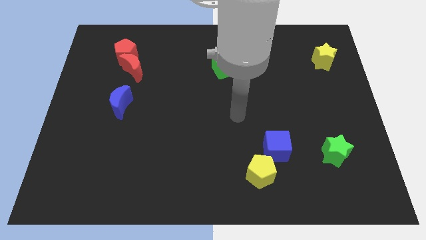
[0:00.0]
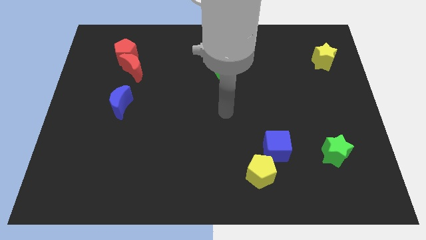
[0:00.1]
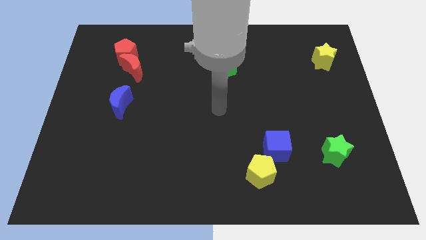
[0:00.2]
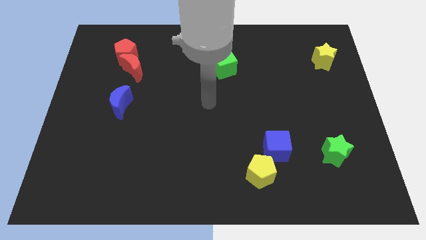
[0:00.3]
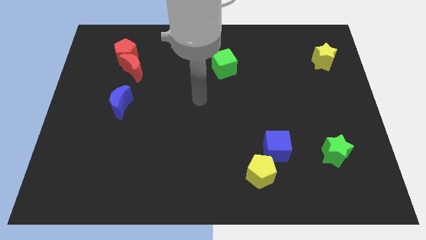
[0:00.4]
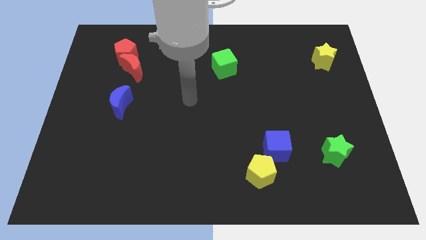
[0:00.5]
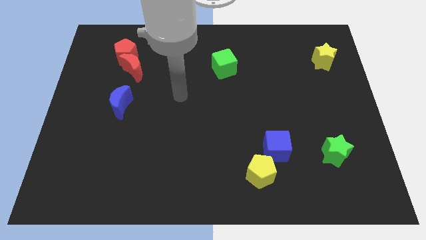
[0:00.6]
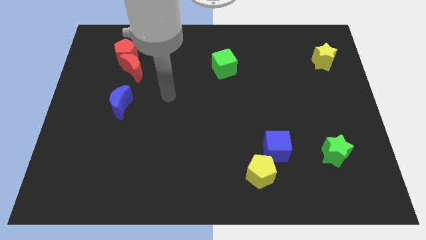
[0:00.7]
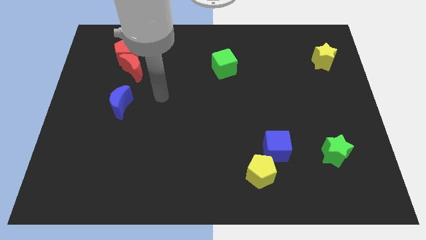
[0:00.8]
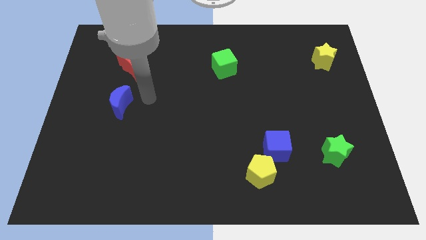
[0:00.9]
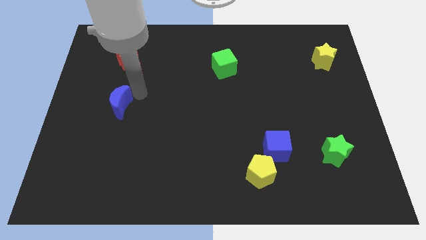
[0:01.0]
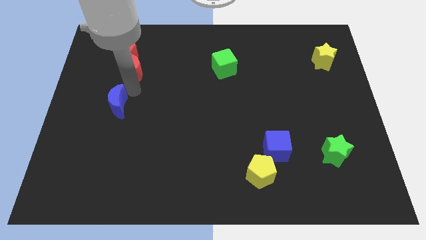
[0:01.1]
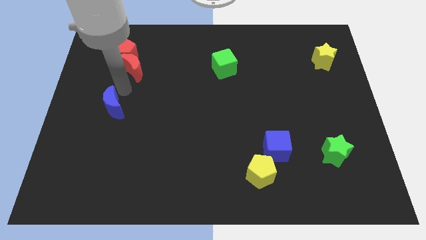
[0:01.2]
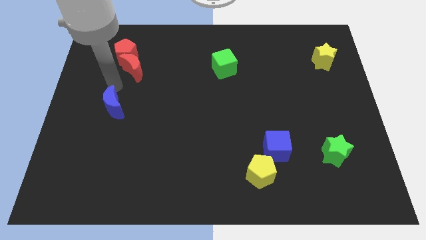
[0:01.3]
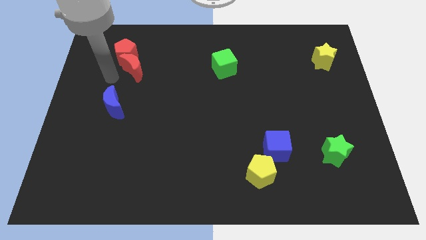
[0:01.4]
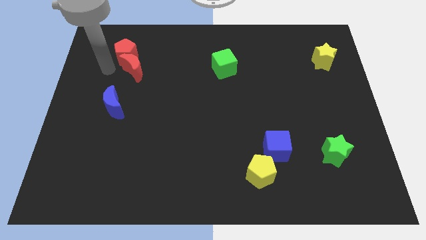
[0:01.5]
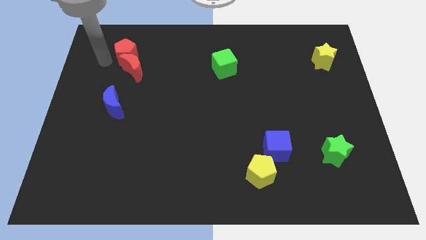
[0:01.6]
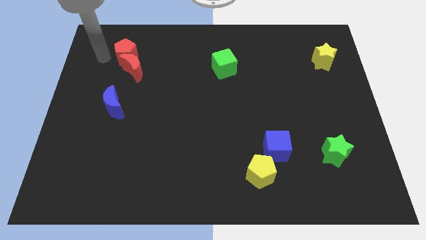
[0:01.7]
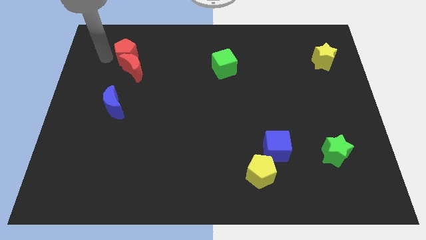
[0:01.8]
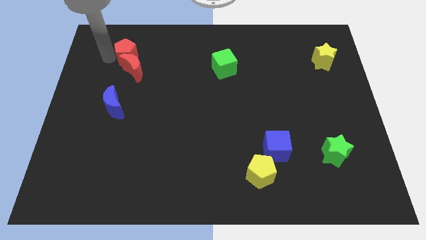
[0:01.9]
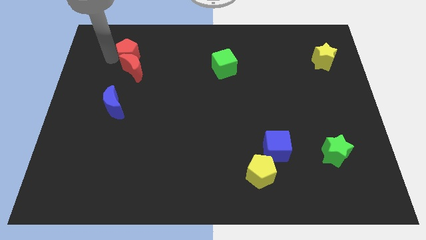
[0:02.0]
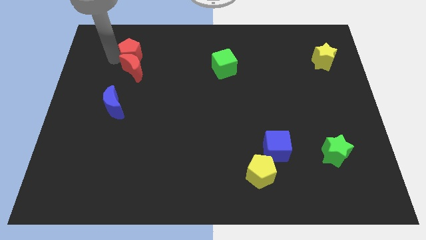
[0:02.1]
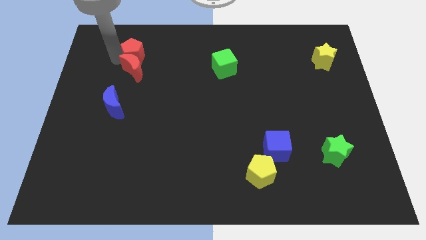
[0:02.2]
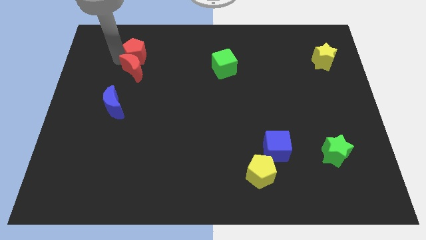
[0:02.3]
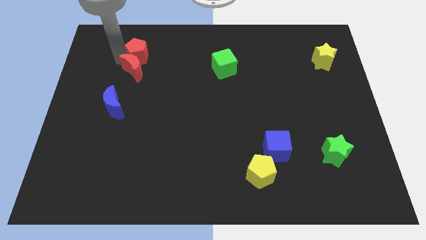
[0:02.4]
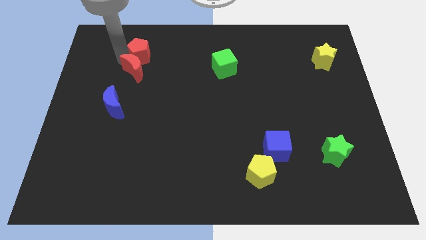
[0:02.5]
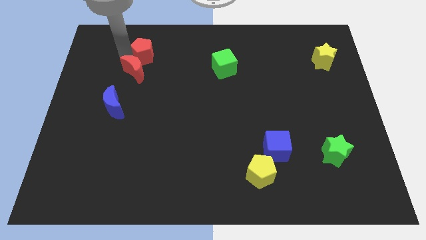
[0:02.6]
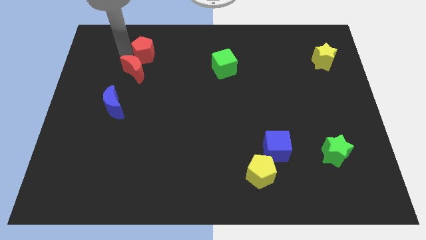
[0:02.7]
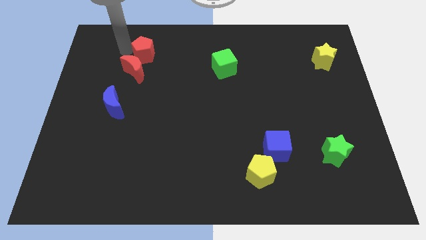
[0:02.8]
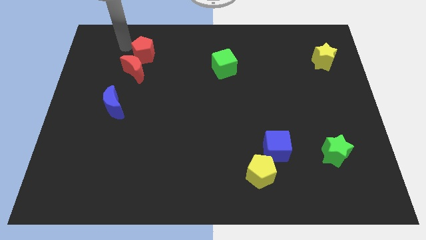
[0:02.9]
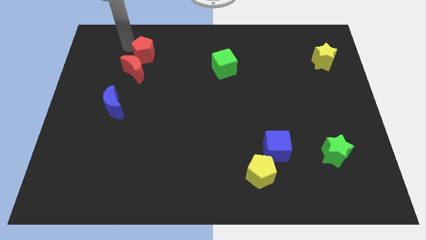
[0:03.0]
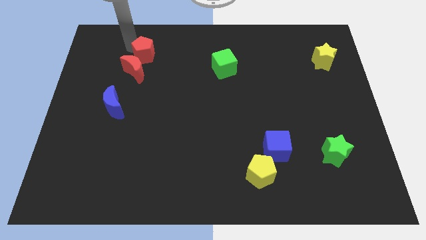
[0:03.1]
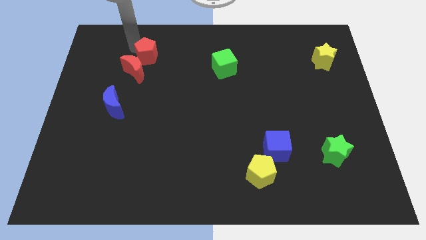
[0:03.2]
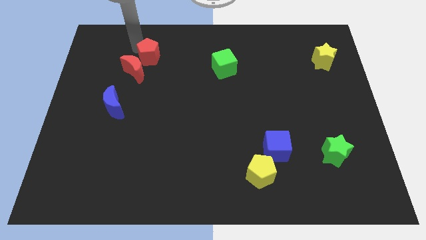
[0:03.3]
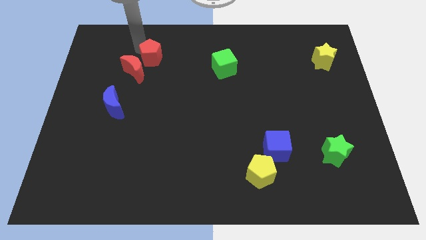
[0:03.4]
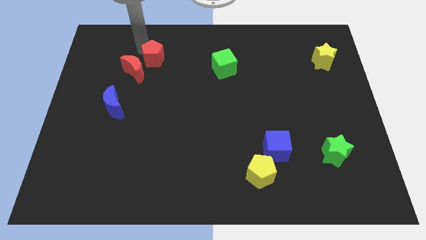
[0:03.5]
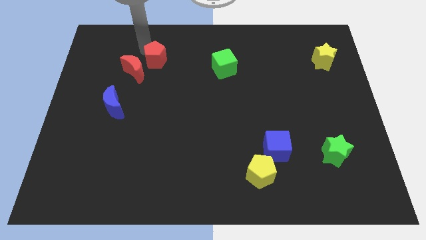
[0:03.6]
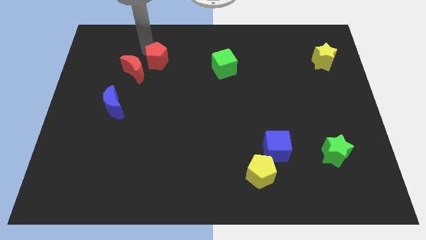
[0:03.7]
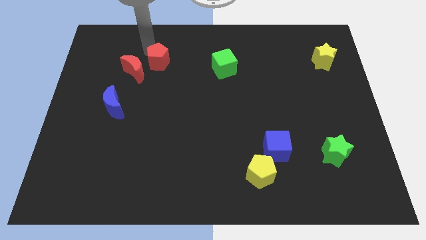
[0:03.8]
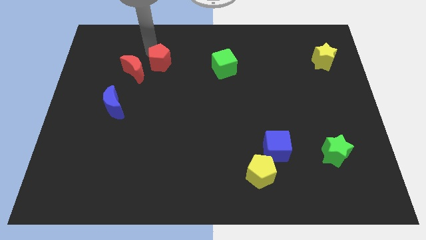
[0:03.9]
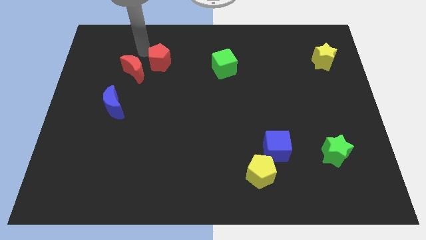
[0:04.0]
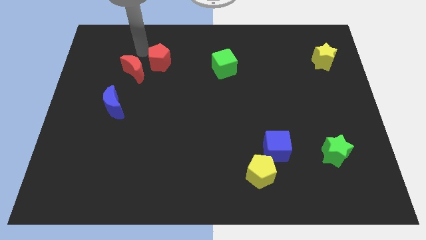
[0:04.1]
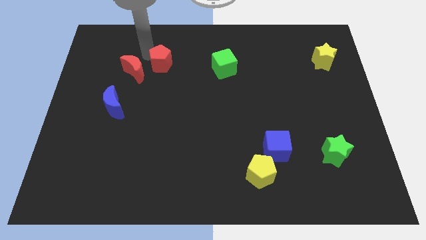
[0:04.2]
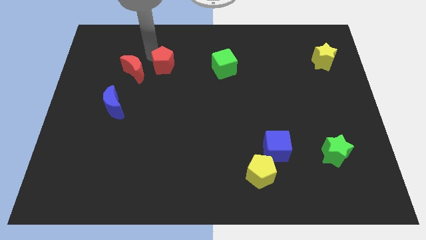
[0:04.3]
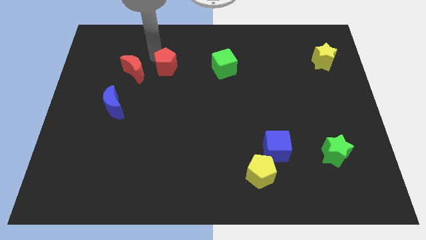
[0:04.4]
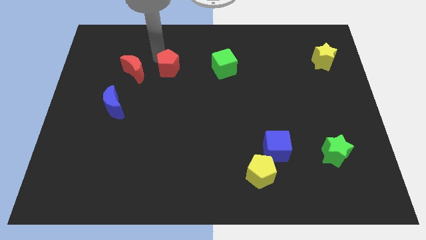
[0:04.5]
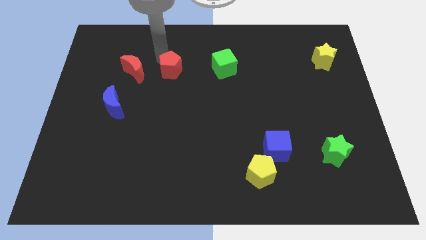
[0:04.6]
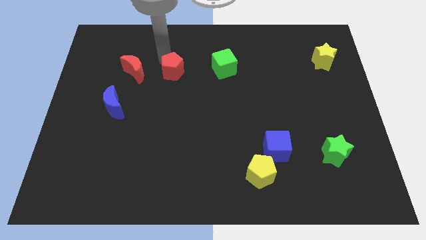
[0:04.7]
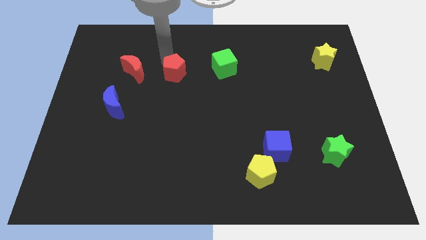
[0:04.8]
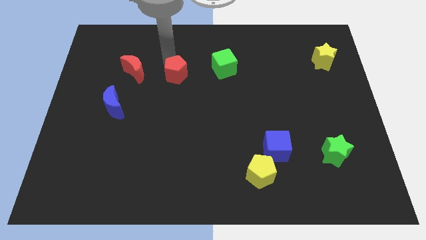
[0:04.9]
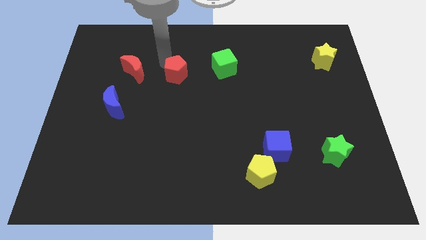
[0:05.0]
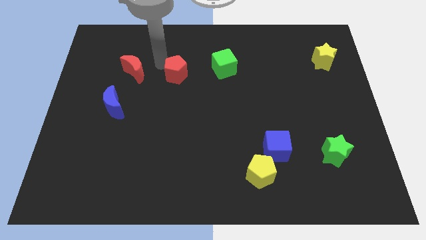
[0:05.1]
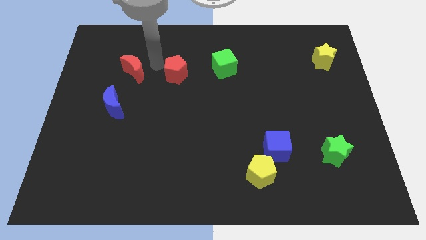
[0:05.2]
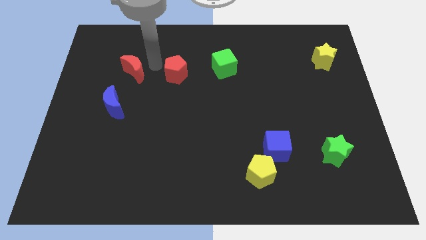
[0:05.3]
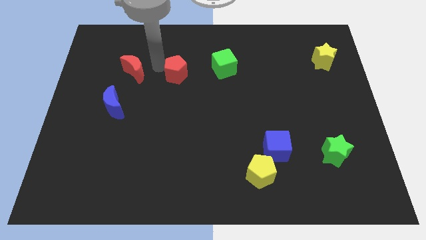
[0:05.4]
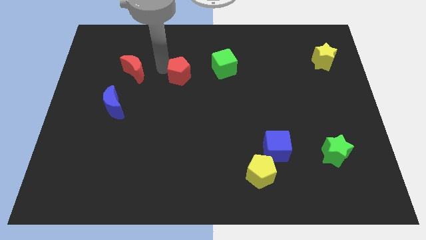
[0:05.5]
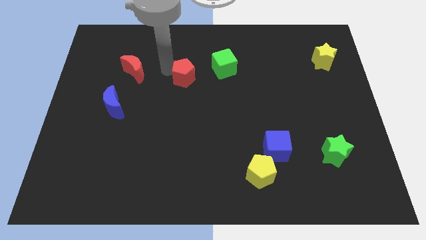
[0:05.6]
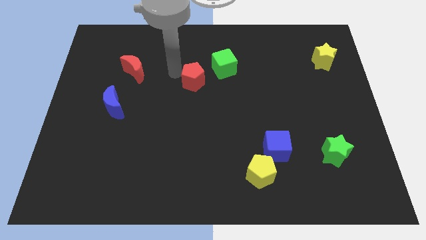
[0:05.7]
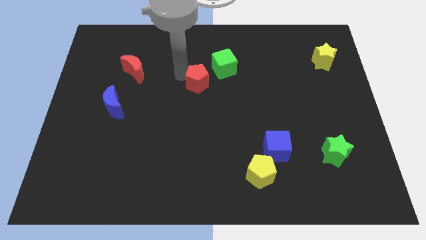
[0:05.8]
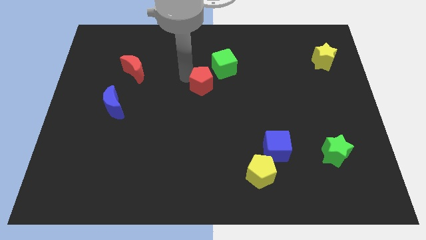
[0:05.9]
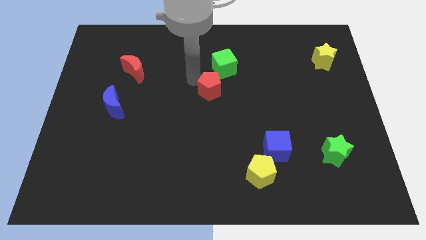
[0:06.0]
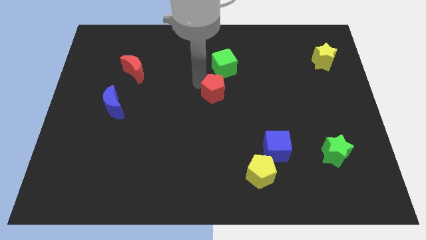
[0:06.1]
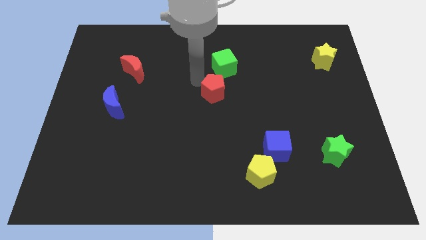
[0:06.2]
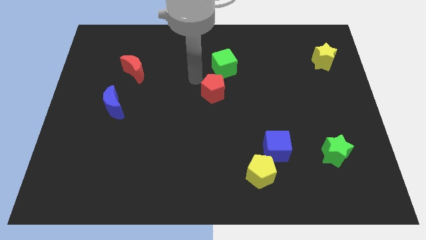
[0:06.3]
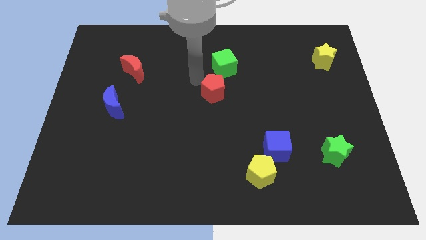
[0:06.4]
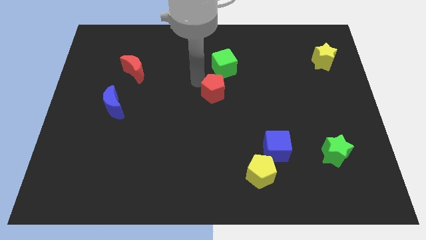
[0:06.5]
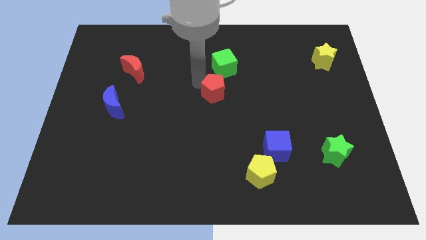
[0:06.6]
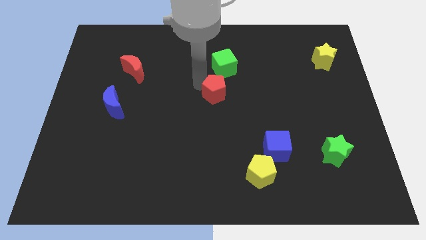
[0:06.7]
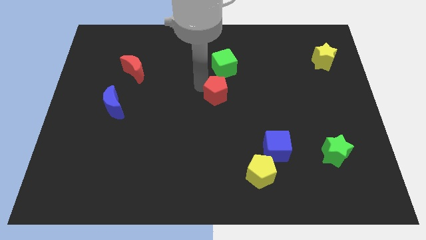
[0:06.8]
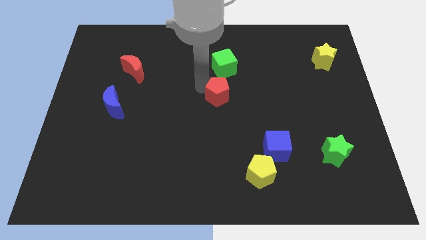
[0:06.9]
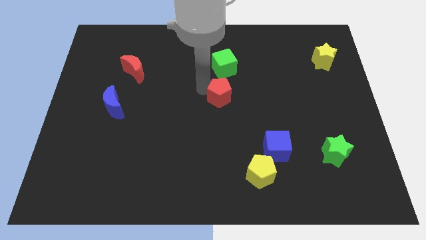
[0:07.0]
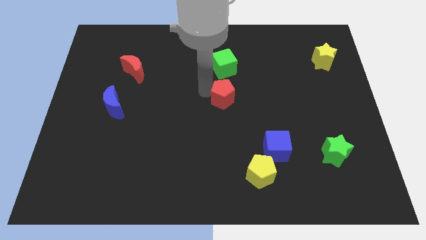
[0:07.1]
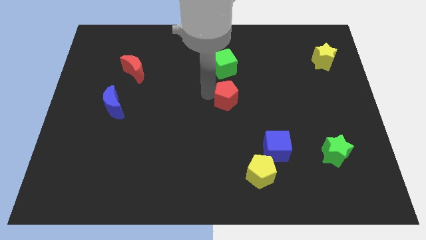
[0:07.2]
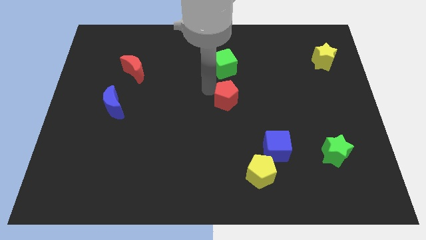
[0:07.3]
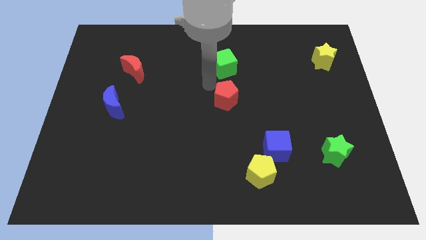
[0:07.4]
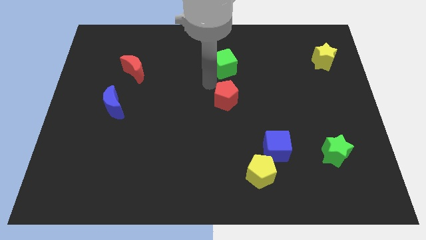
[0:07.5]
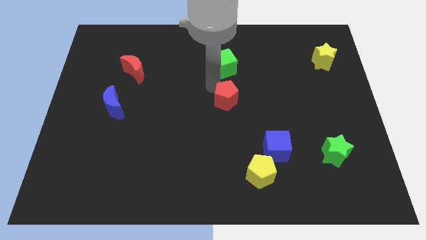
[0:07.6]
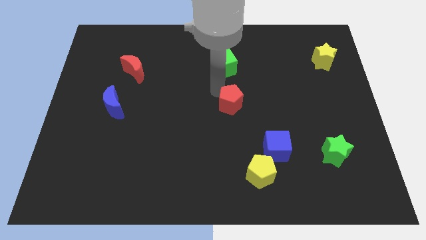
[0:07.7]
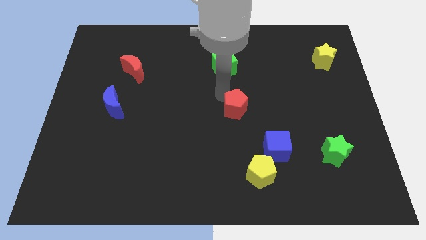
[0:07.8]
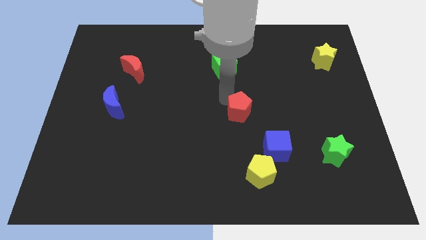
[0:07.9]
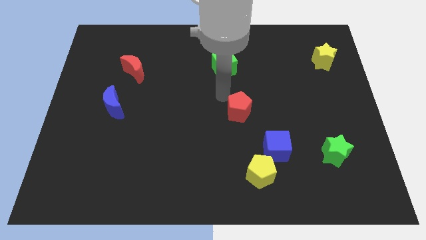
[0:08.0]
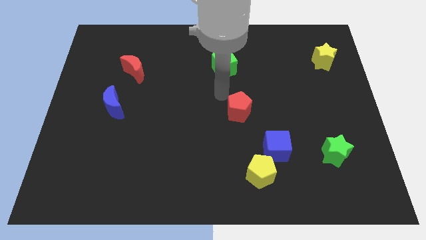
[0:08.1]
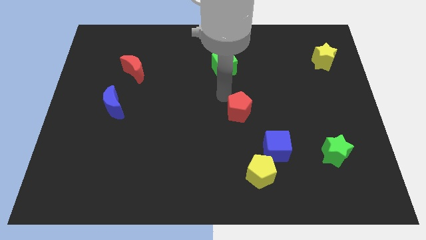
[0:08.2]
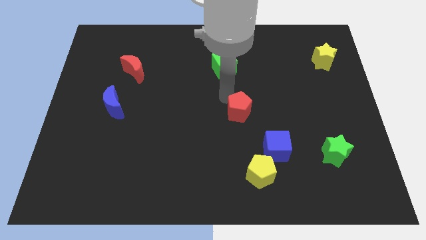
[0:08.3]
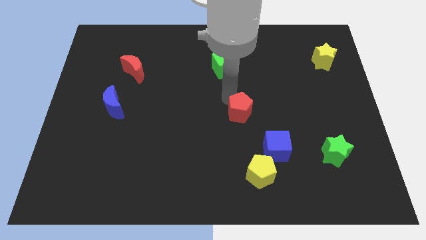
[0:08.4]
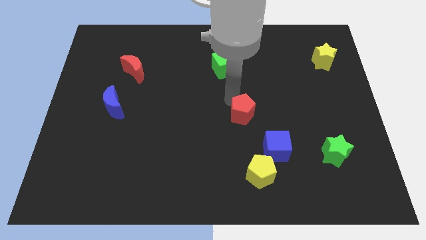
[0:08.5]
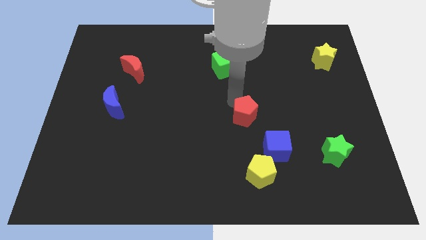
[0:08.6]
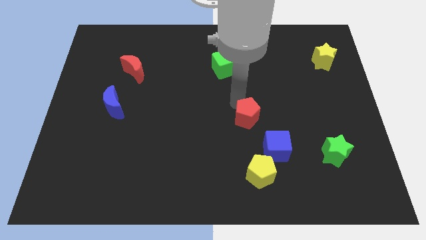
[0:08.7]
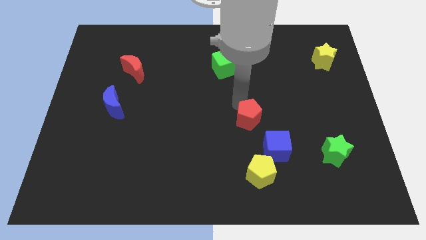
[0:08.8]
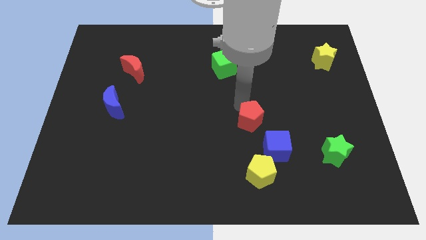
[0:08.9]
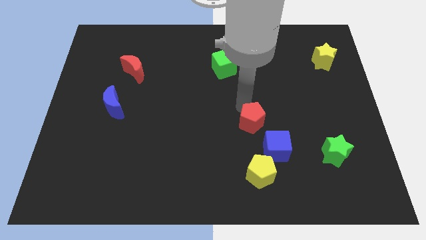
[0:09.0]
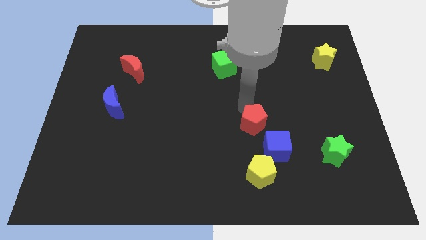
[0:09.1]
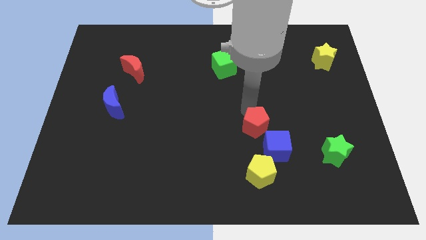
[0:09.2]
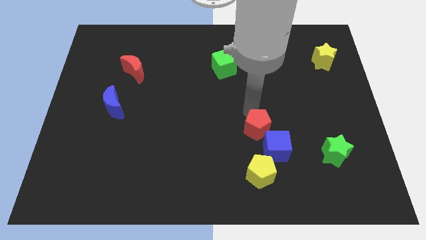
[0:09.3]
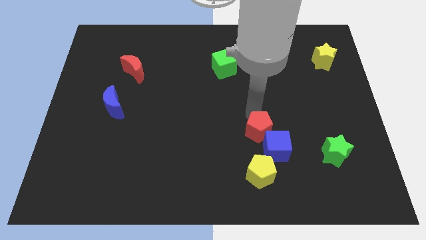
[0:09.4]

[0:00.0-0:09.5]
push the red pentagon close to the blue cube
